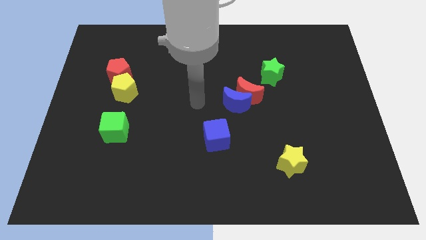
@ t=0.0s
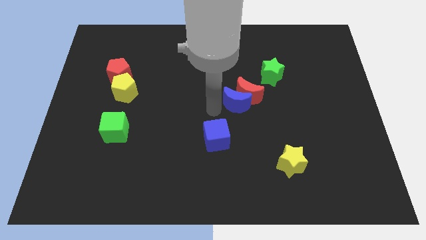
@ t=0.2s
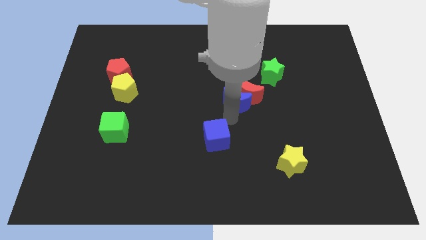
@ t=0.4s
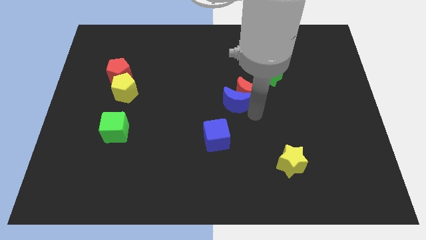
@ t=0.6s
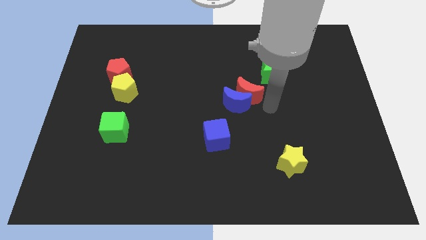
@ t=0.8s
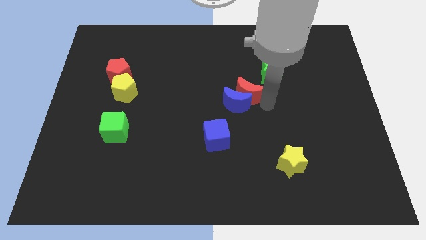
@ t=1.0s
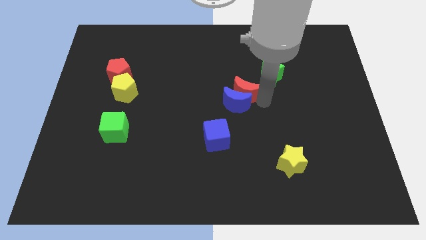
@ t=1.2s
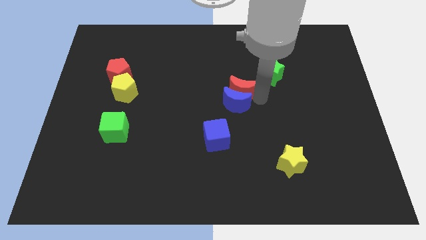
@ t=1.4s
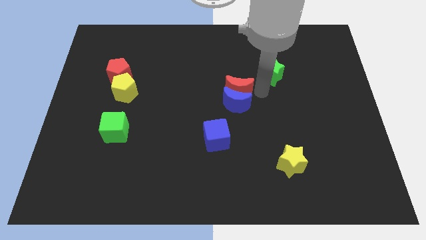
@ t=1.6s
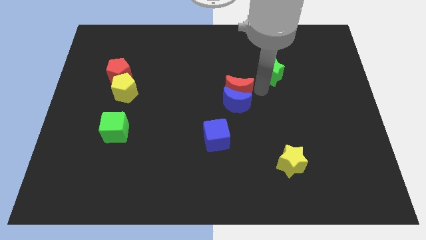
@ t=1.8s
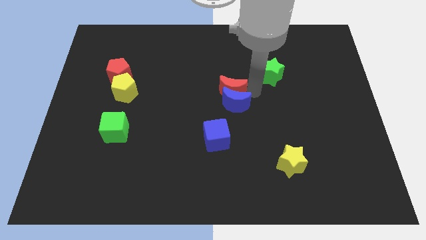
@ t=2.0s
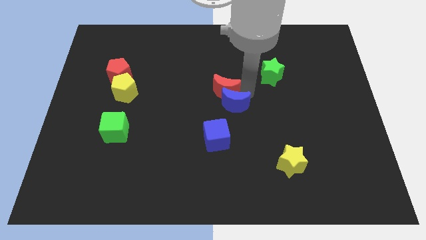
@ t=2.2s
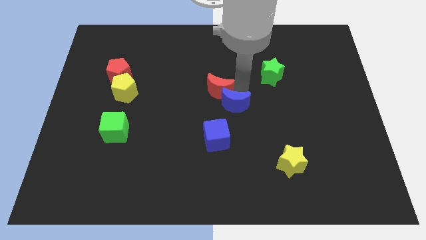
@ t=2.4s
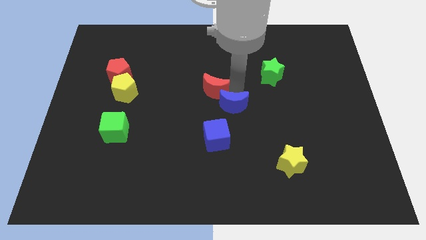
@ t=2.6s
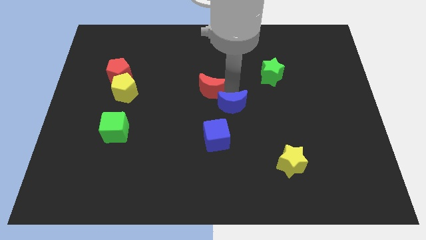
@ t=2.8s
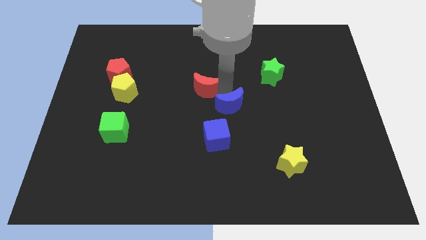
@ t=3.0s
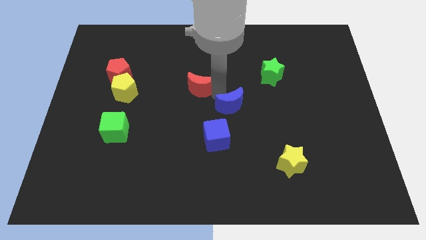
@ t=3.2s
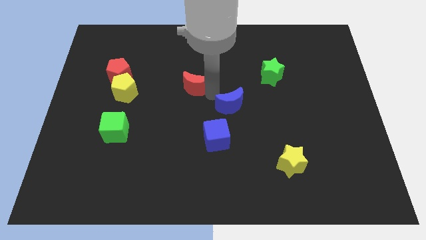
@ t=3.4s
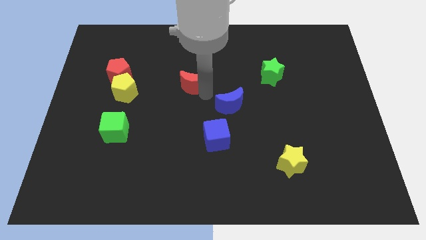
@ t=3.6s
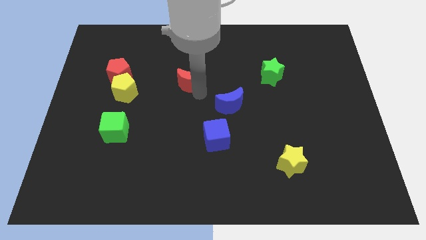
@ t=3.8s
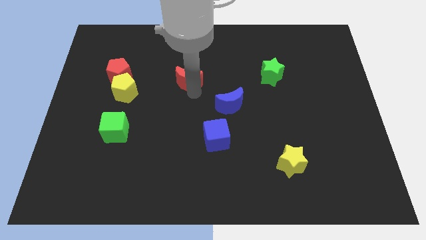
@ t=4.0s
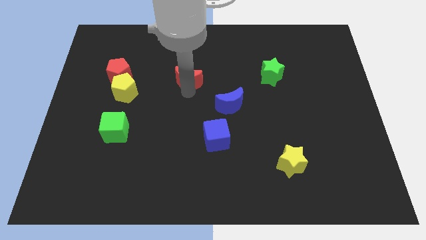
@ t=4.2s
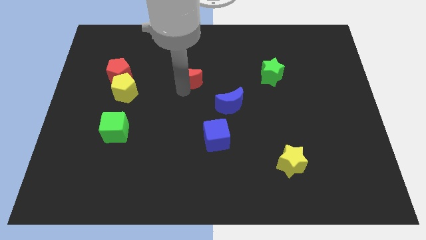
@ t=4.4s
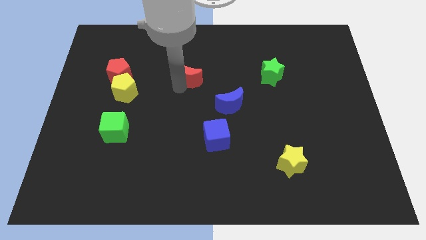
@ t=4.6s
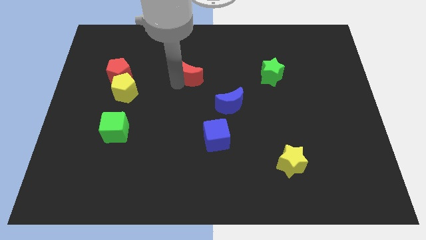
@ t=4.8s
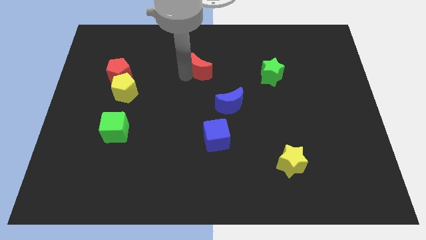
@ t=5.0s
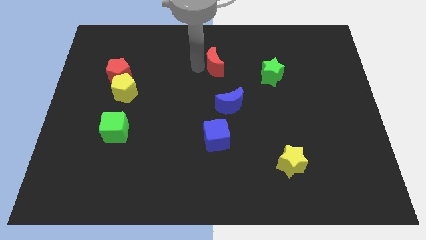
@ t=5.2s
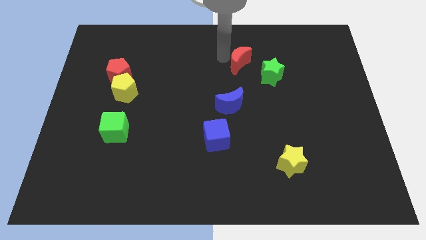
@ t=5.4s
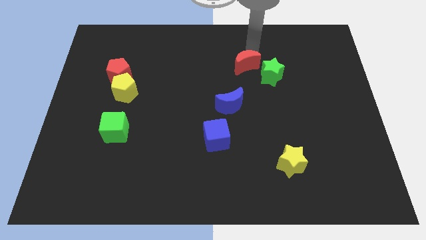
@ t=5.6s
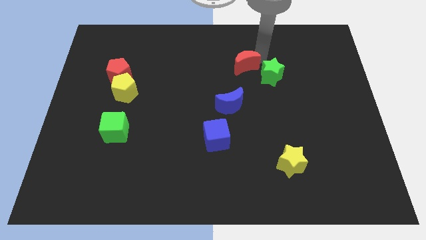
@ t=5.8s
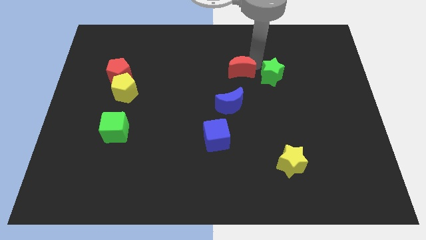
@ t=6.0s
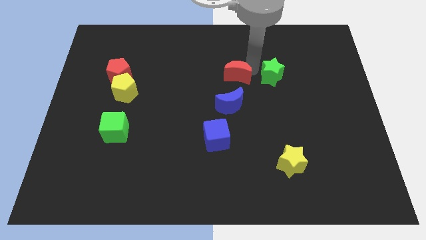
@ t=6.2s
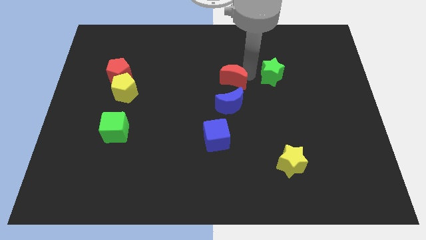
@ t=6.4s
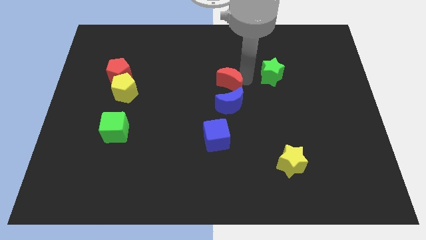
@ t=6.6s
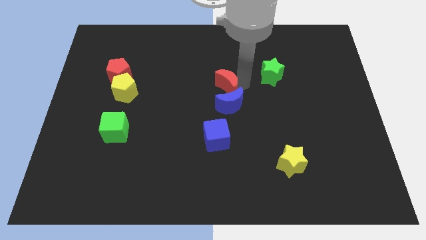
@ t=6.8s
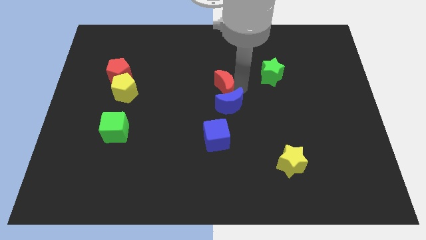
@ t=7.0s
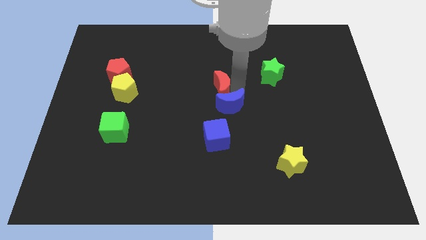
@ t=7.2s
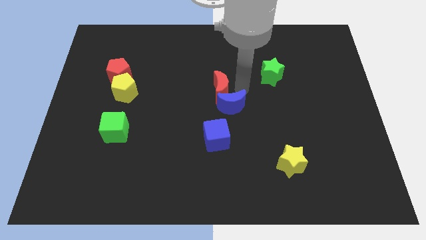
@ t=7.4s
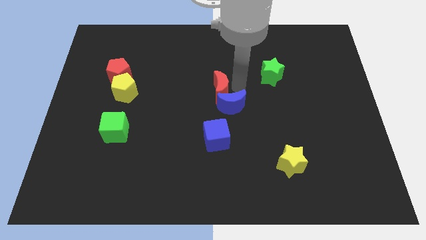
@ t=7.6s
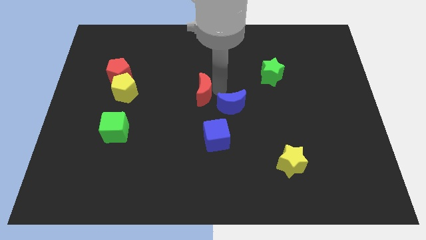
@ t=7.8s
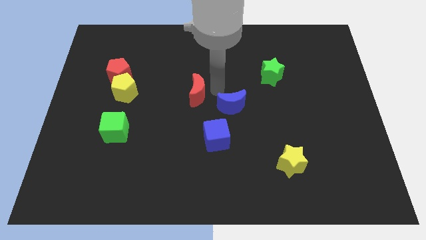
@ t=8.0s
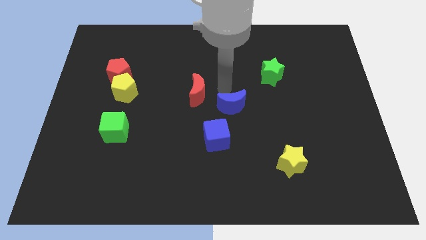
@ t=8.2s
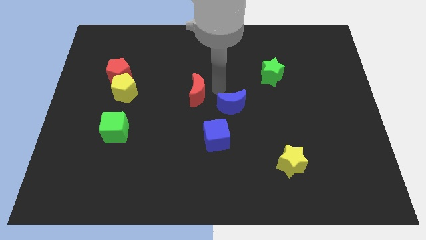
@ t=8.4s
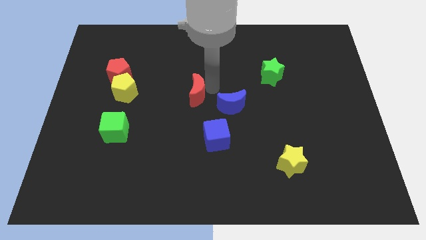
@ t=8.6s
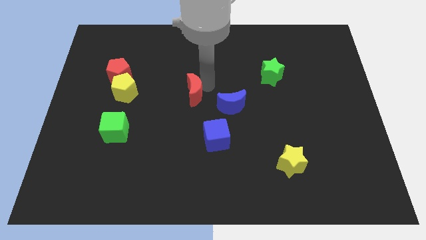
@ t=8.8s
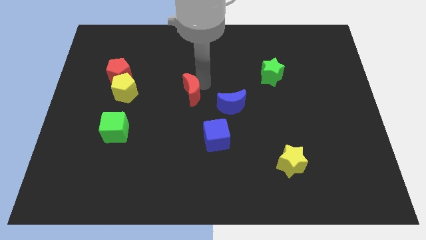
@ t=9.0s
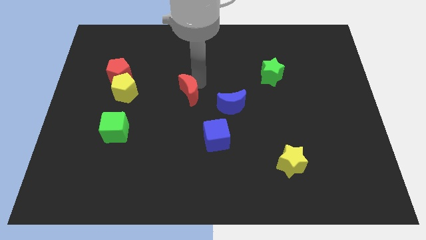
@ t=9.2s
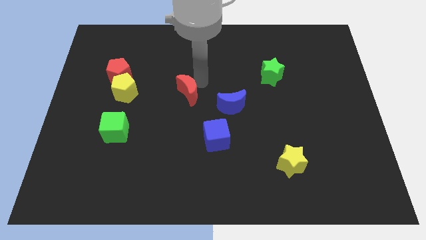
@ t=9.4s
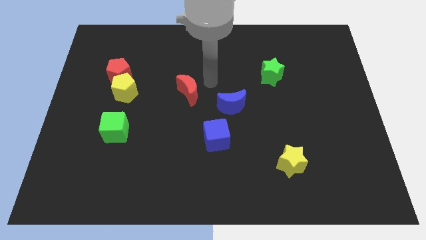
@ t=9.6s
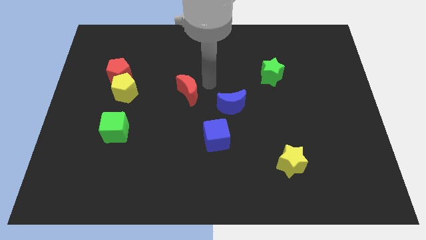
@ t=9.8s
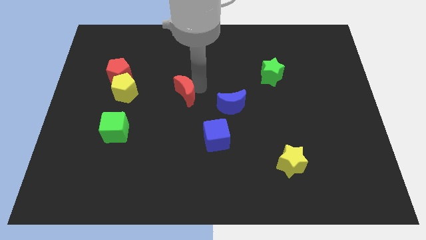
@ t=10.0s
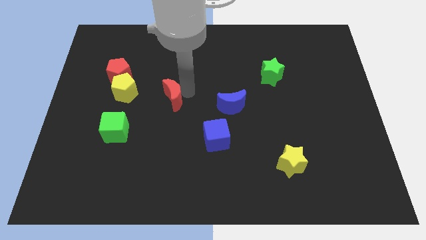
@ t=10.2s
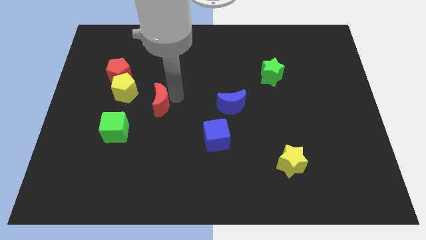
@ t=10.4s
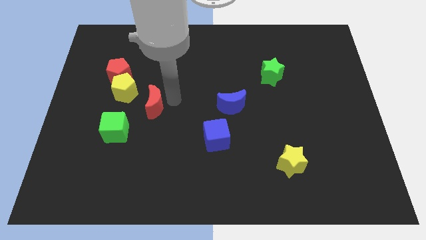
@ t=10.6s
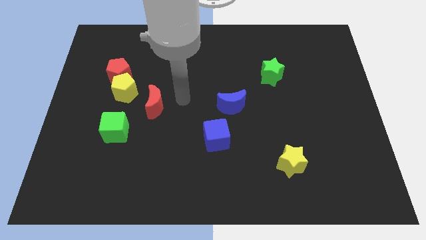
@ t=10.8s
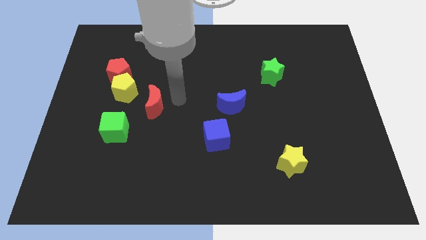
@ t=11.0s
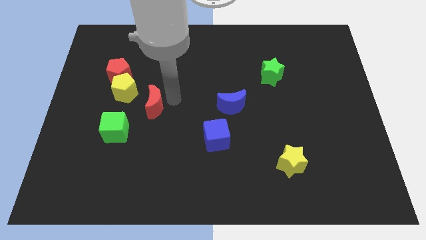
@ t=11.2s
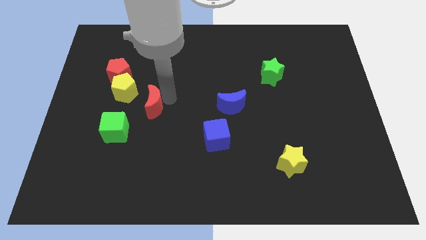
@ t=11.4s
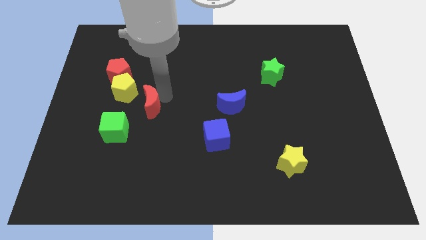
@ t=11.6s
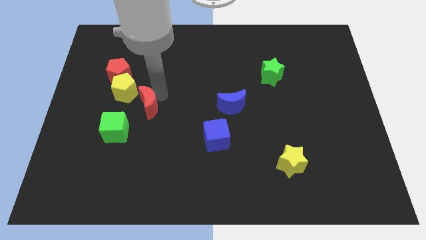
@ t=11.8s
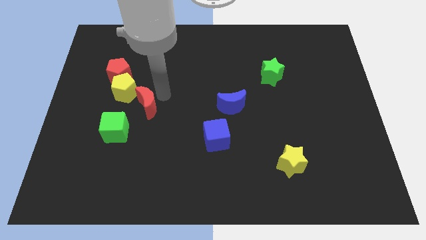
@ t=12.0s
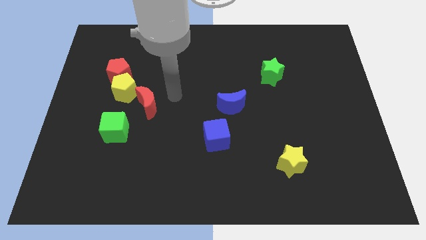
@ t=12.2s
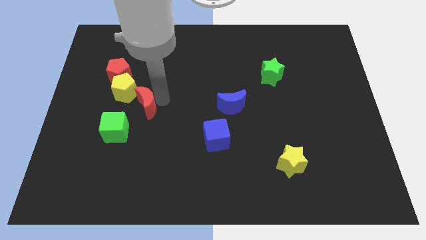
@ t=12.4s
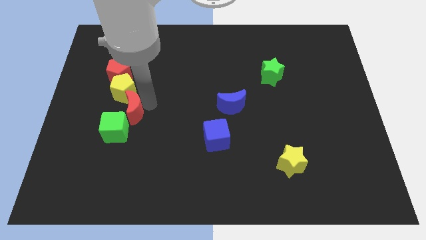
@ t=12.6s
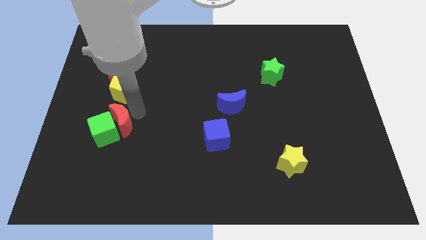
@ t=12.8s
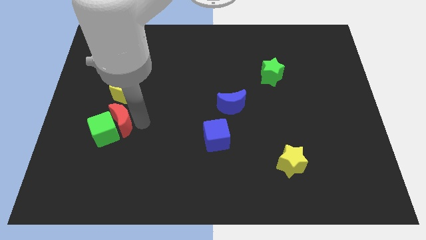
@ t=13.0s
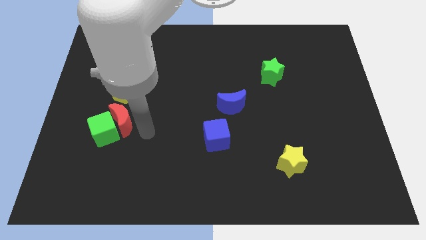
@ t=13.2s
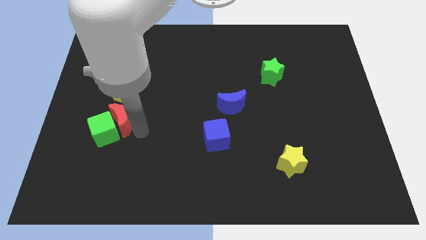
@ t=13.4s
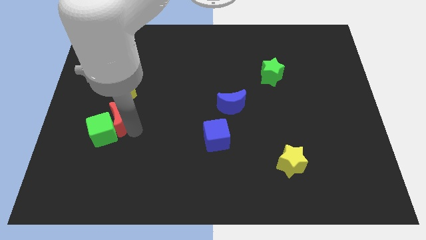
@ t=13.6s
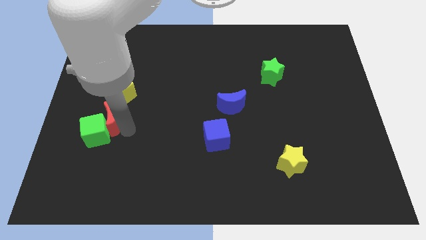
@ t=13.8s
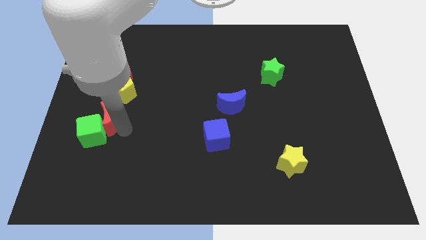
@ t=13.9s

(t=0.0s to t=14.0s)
push the red moon diagonally down and to the left of the yellow pentagon

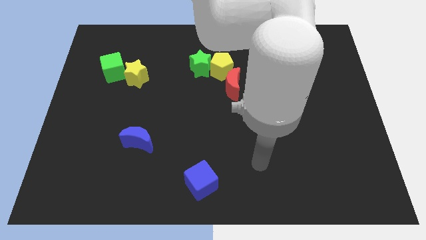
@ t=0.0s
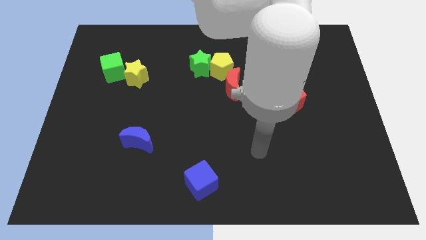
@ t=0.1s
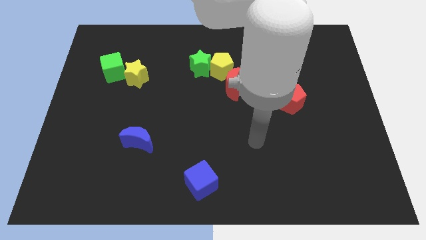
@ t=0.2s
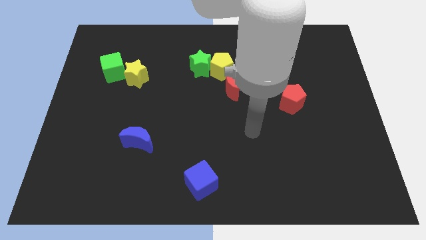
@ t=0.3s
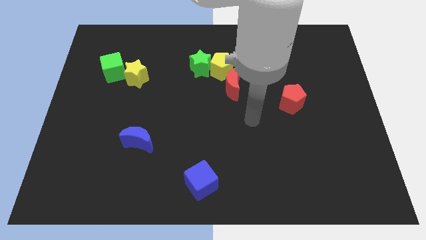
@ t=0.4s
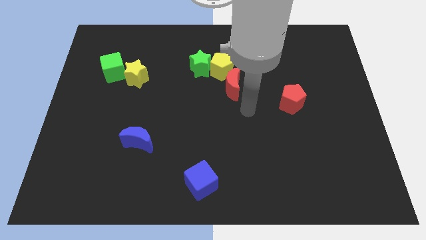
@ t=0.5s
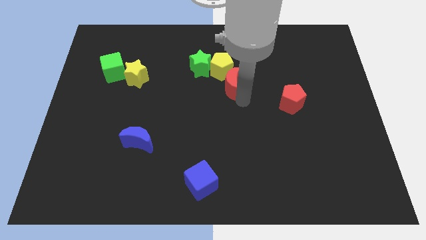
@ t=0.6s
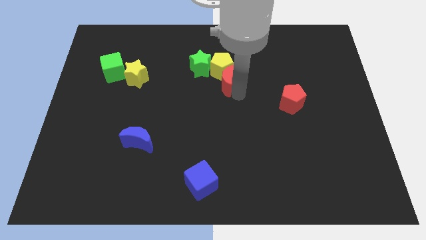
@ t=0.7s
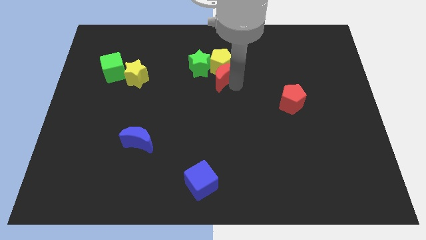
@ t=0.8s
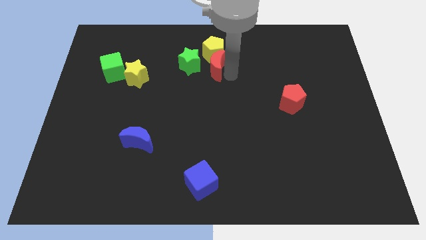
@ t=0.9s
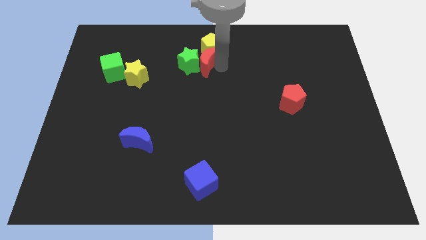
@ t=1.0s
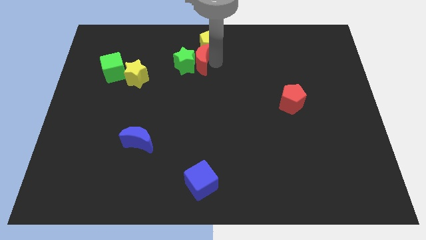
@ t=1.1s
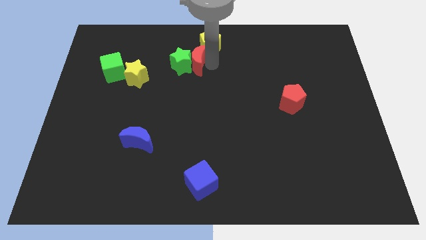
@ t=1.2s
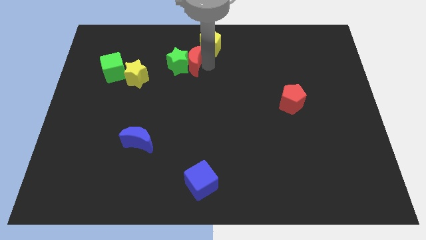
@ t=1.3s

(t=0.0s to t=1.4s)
move the green star to the top right side of the yellow star
